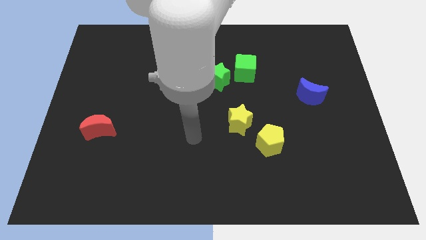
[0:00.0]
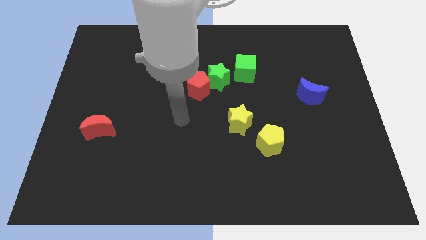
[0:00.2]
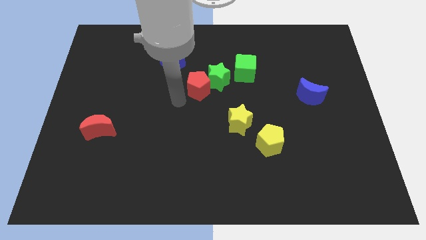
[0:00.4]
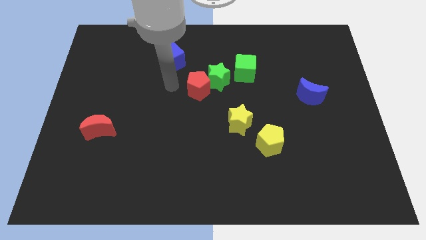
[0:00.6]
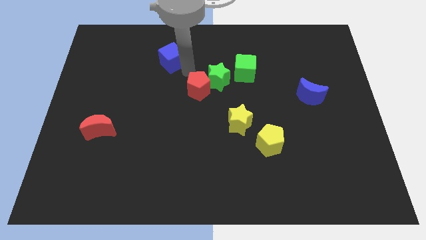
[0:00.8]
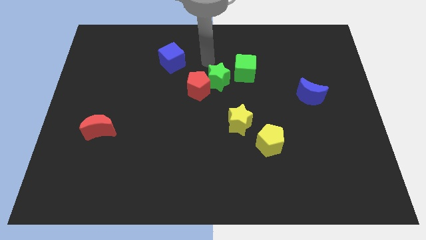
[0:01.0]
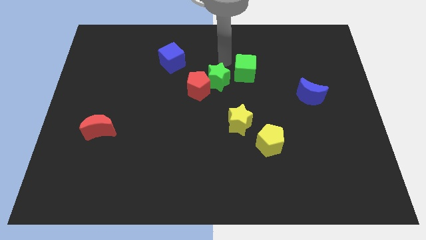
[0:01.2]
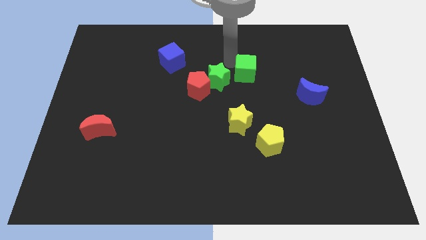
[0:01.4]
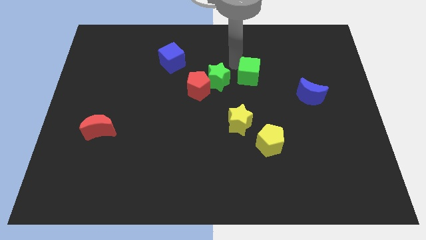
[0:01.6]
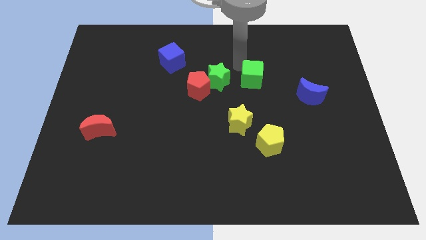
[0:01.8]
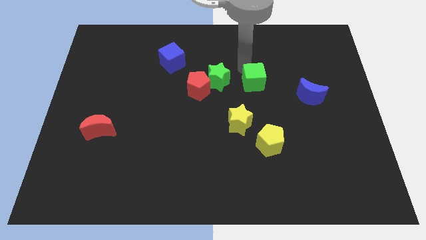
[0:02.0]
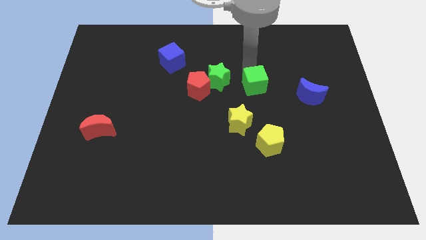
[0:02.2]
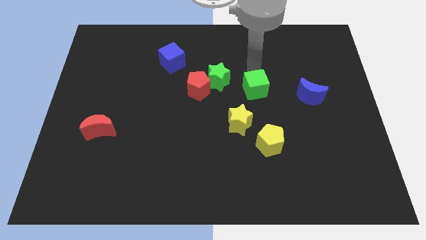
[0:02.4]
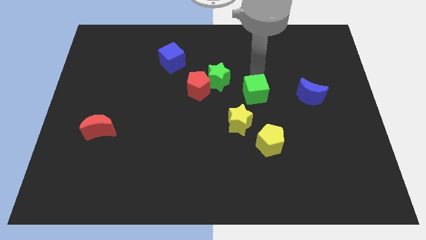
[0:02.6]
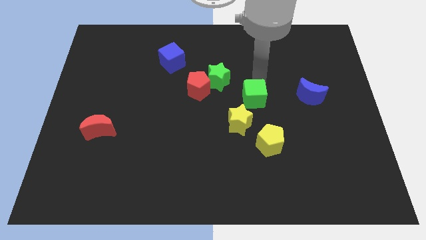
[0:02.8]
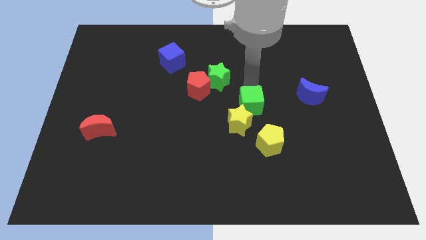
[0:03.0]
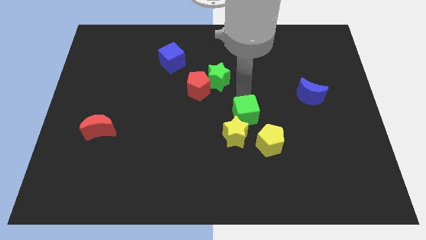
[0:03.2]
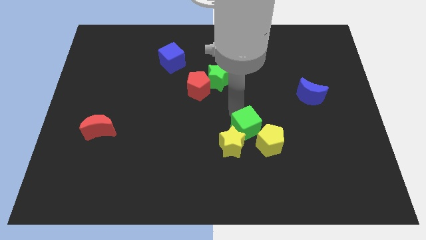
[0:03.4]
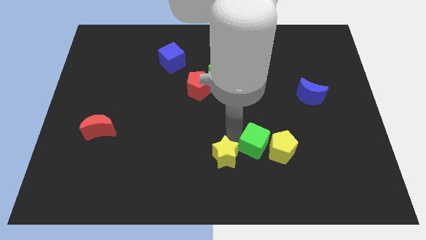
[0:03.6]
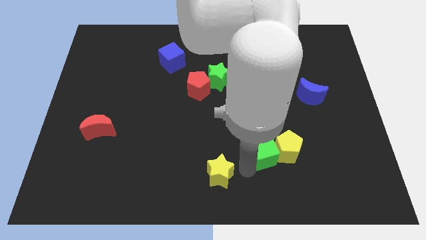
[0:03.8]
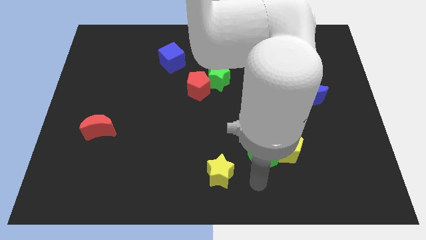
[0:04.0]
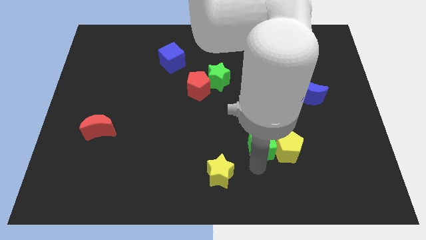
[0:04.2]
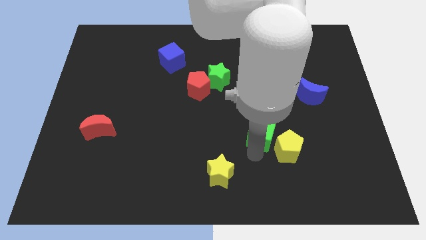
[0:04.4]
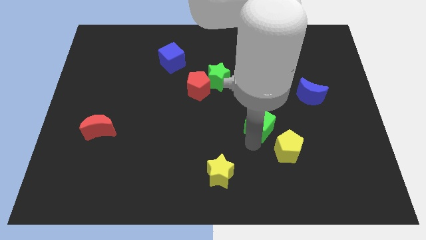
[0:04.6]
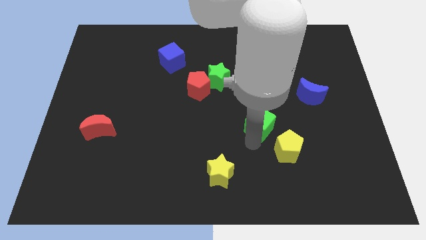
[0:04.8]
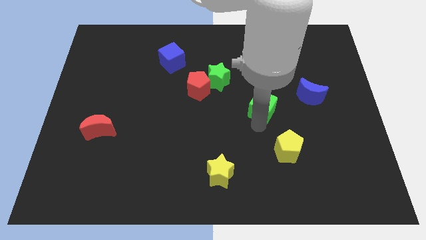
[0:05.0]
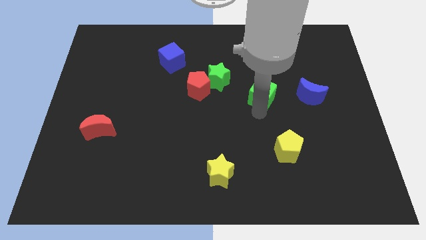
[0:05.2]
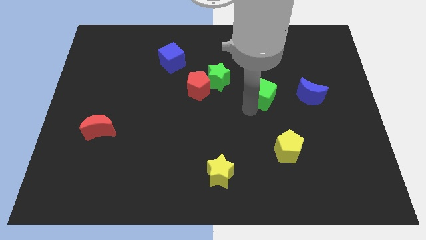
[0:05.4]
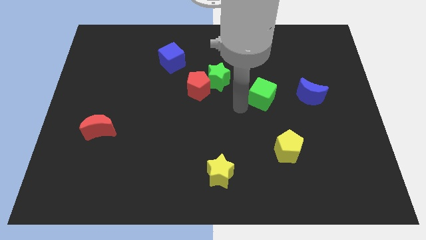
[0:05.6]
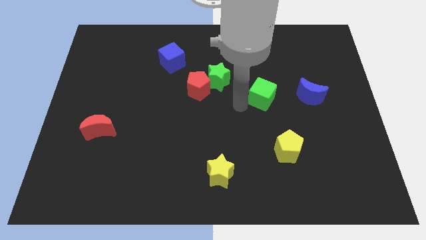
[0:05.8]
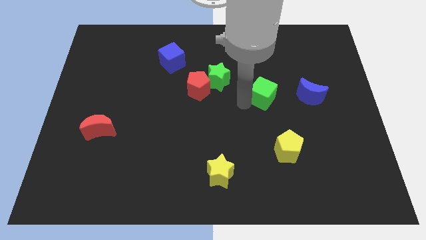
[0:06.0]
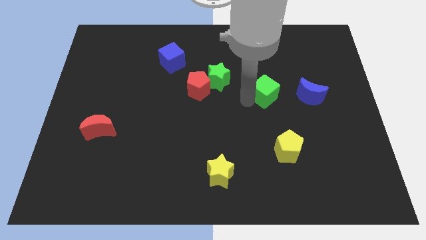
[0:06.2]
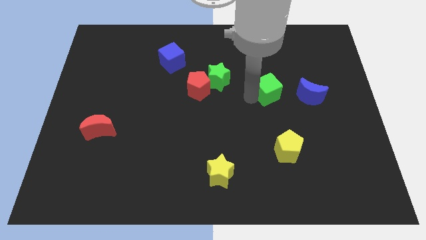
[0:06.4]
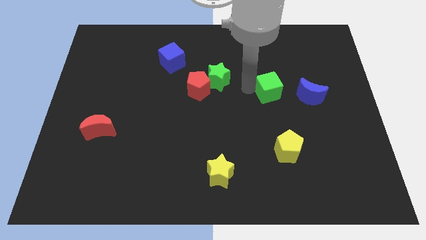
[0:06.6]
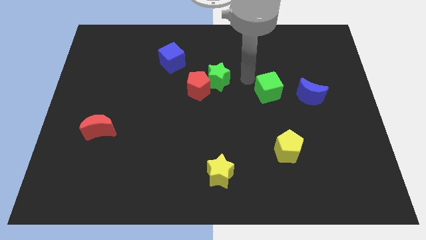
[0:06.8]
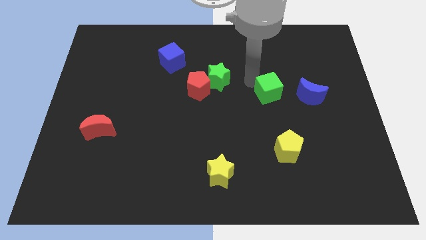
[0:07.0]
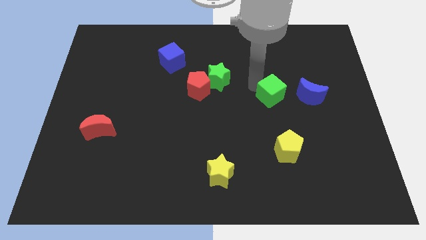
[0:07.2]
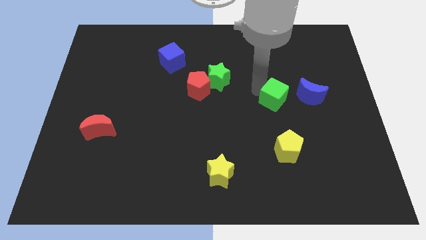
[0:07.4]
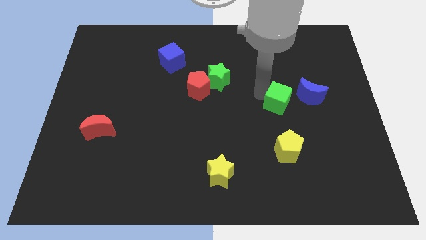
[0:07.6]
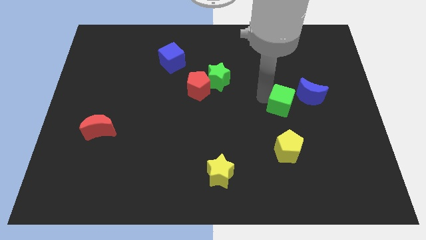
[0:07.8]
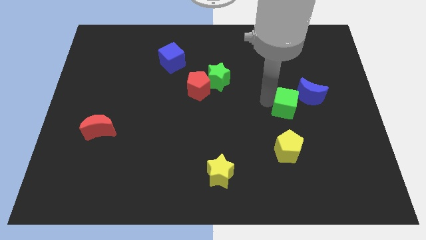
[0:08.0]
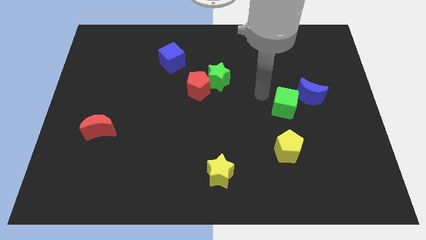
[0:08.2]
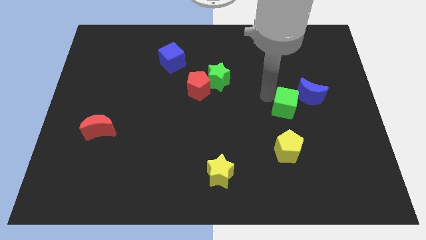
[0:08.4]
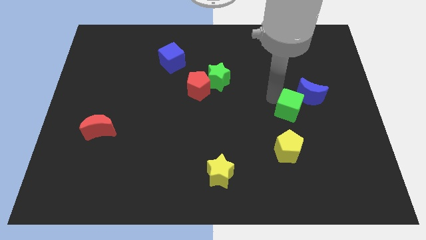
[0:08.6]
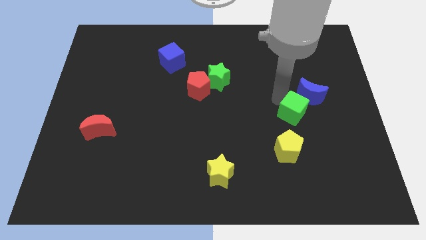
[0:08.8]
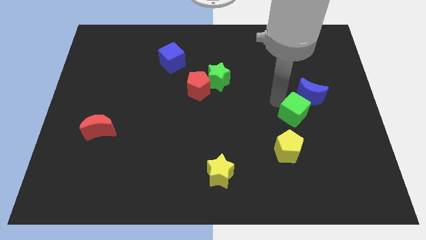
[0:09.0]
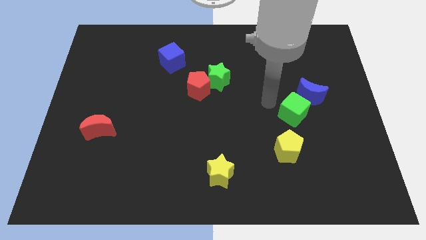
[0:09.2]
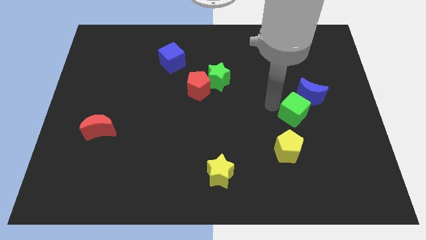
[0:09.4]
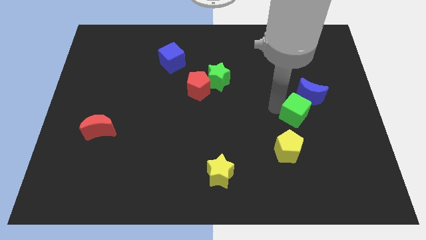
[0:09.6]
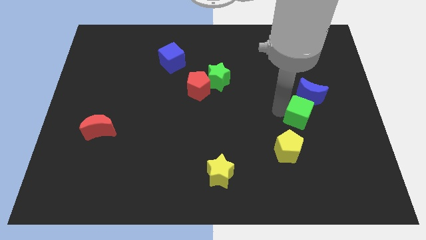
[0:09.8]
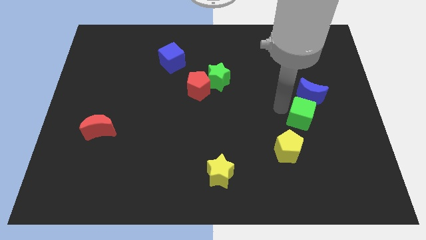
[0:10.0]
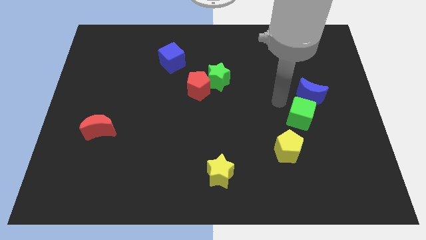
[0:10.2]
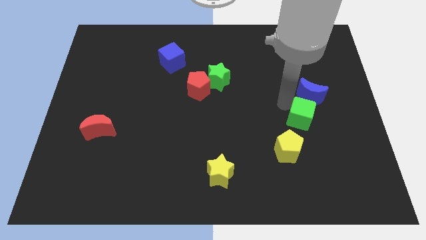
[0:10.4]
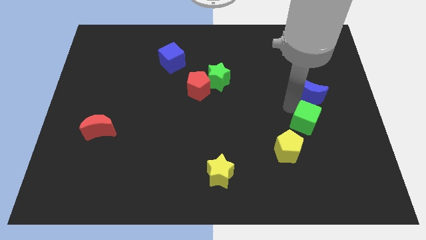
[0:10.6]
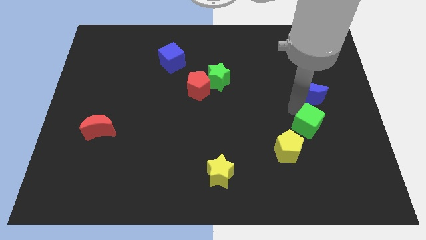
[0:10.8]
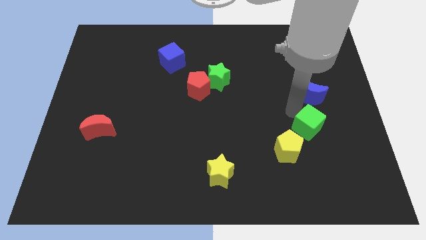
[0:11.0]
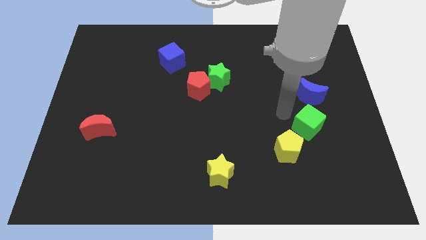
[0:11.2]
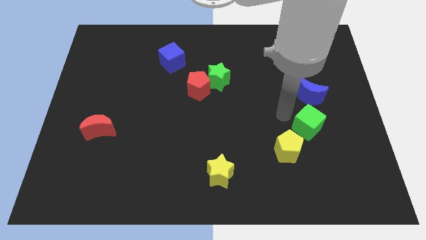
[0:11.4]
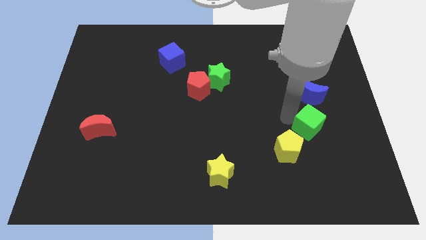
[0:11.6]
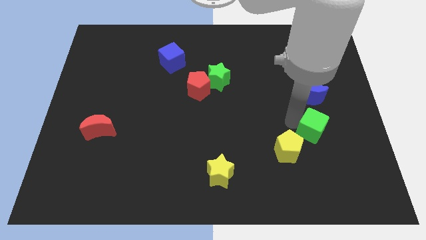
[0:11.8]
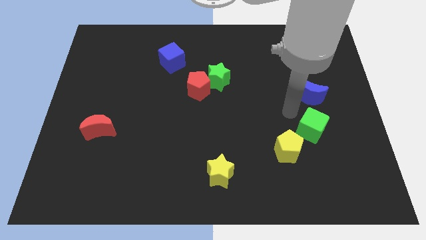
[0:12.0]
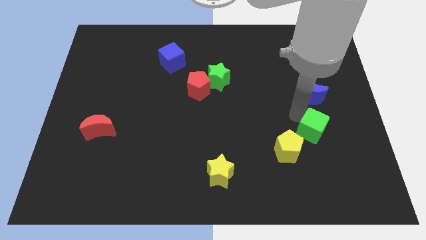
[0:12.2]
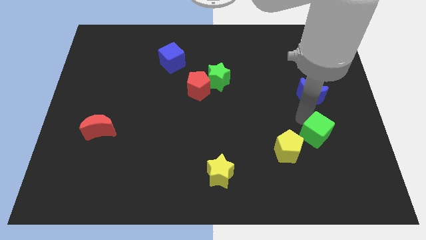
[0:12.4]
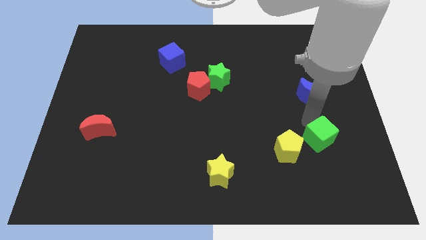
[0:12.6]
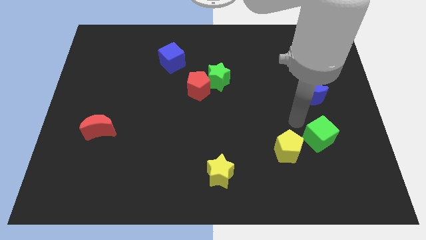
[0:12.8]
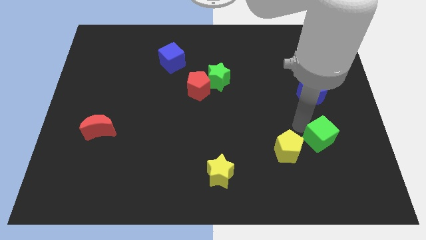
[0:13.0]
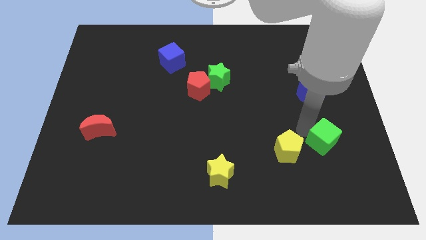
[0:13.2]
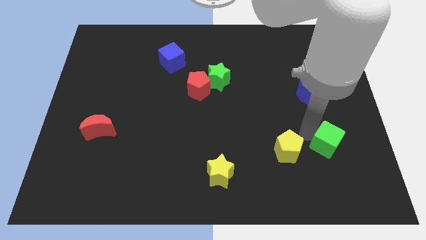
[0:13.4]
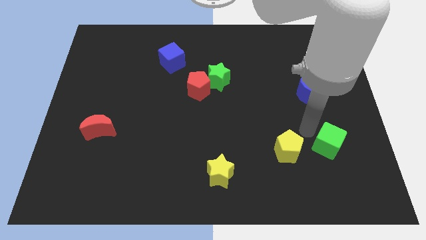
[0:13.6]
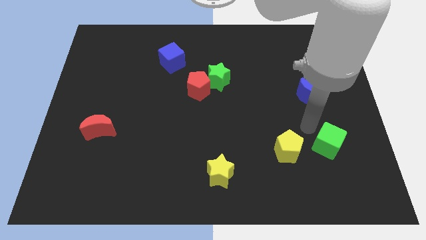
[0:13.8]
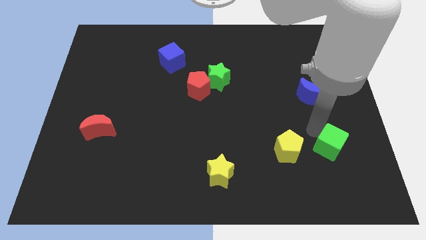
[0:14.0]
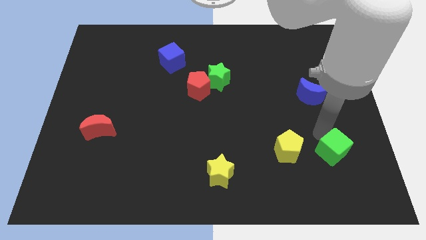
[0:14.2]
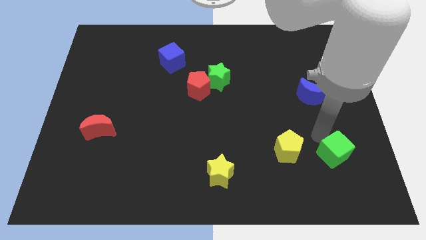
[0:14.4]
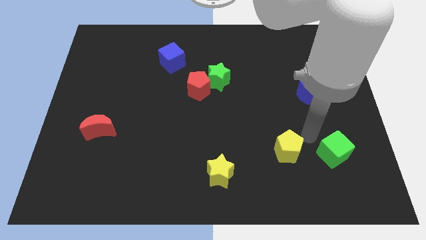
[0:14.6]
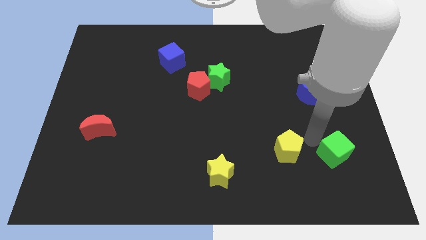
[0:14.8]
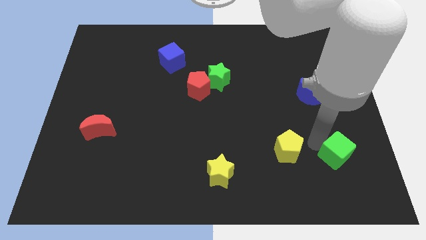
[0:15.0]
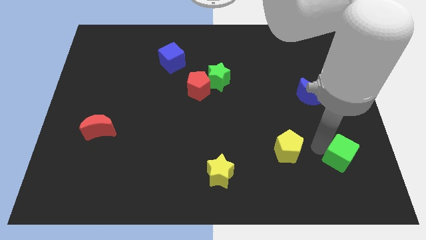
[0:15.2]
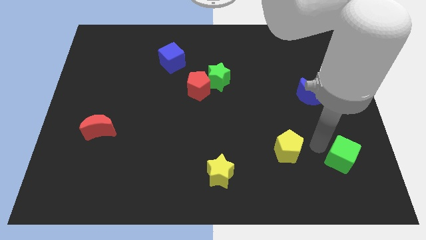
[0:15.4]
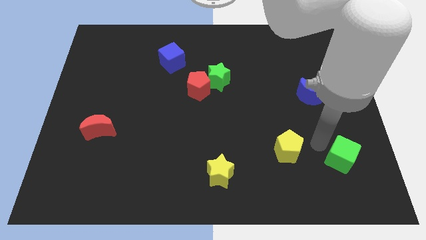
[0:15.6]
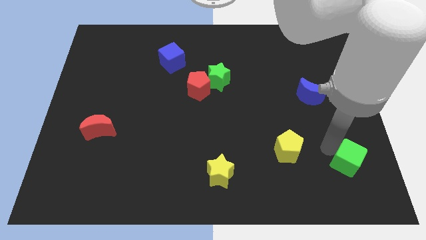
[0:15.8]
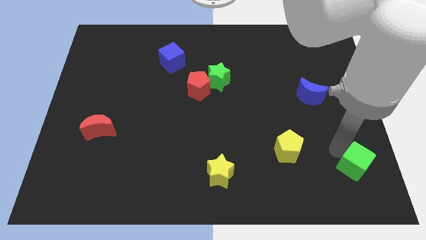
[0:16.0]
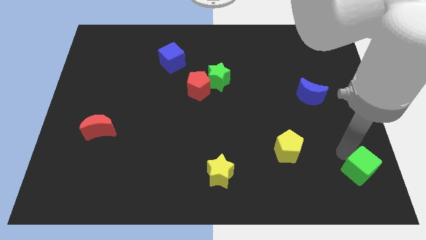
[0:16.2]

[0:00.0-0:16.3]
move the green cube to the bottom right
